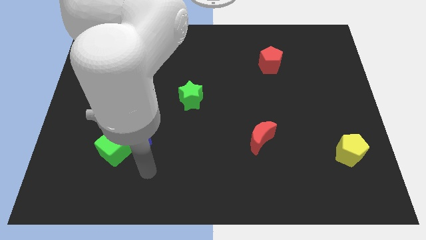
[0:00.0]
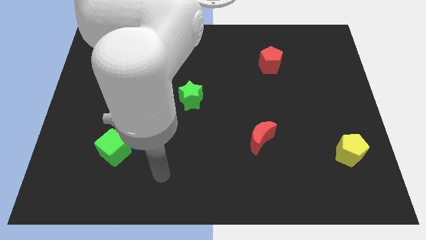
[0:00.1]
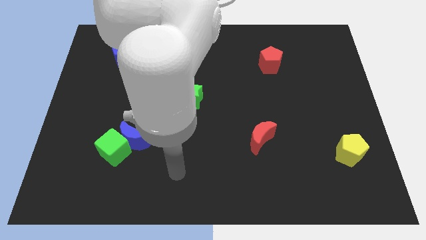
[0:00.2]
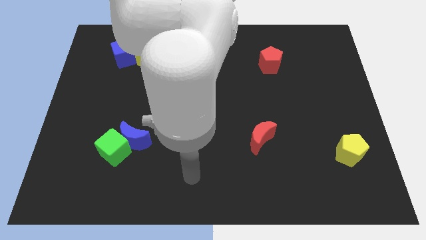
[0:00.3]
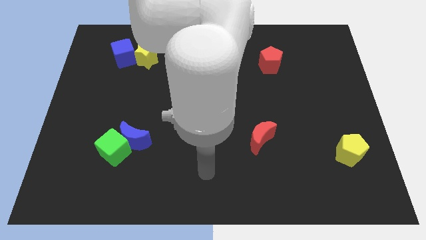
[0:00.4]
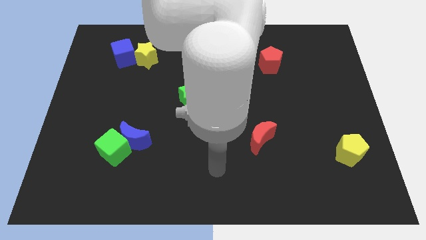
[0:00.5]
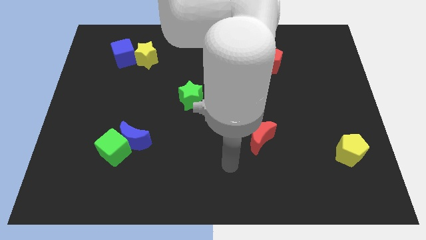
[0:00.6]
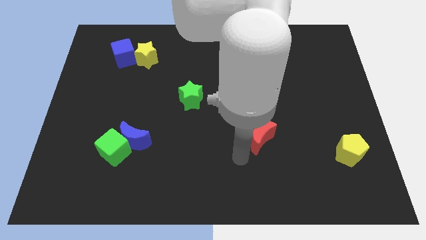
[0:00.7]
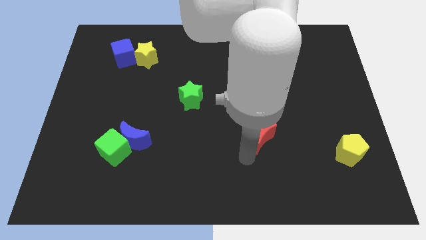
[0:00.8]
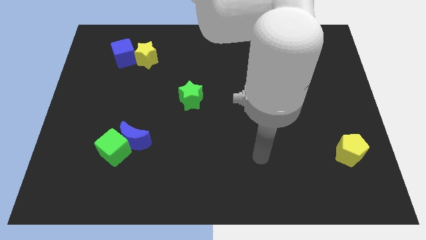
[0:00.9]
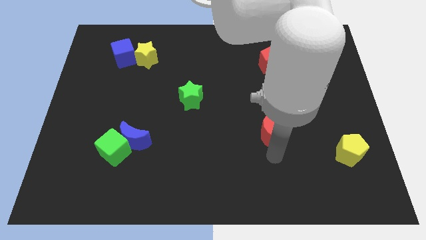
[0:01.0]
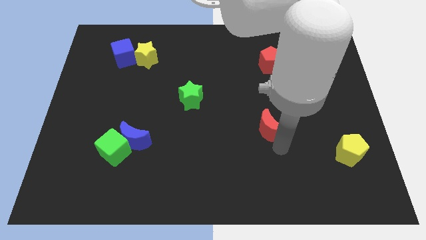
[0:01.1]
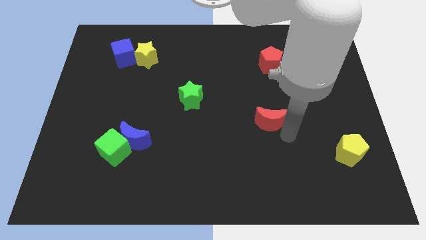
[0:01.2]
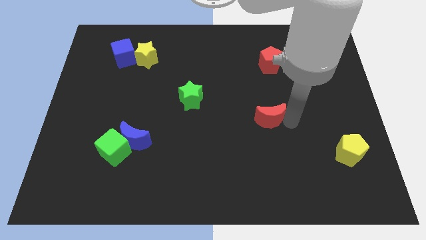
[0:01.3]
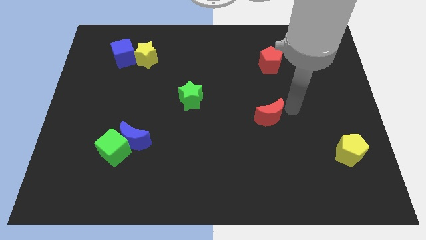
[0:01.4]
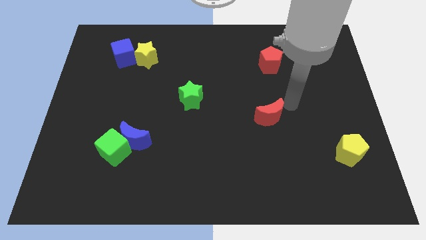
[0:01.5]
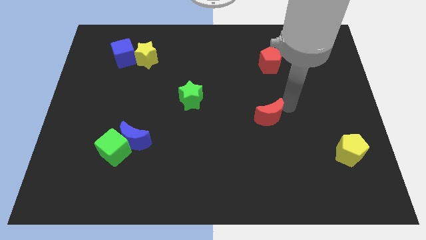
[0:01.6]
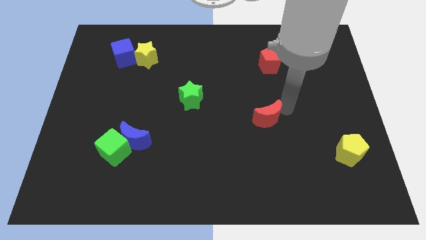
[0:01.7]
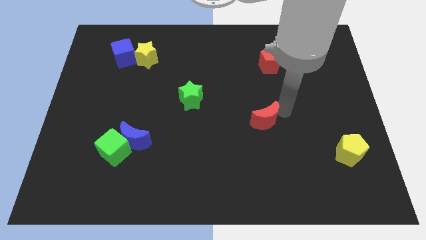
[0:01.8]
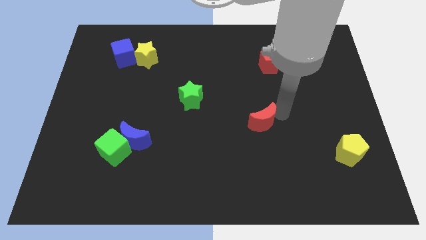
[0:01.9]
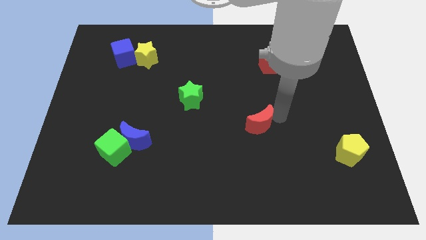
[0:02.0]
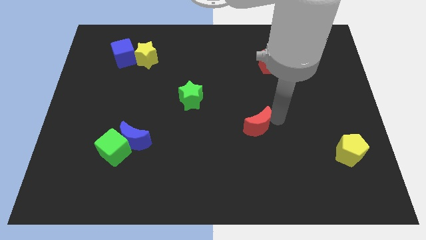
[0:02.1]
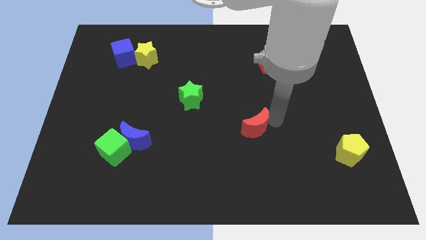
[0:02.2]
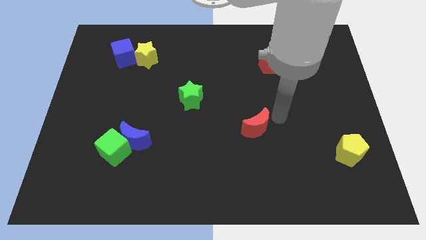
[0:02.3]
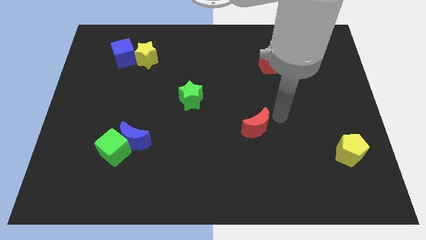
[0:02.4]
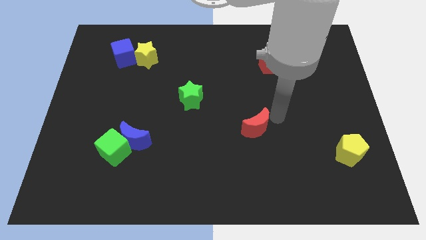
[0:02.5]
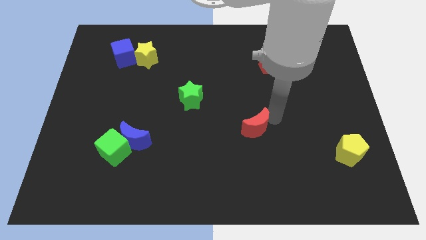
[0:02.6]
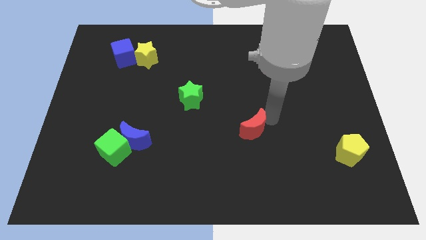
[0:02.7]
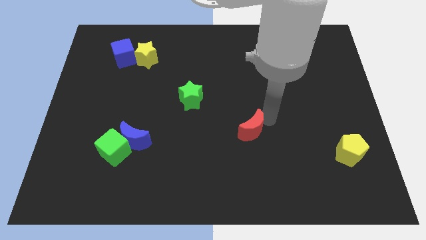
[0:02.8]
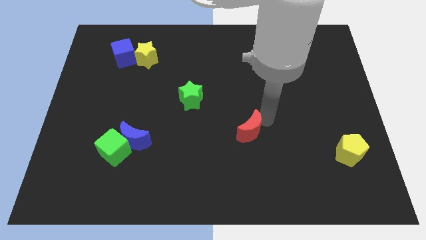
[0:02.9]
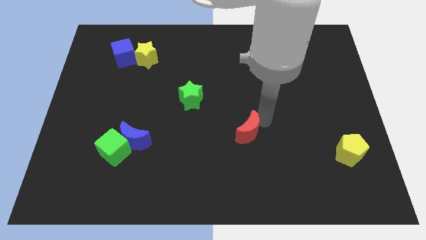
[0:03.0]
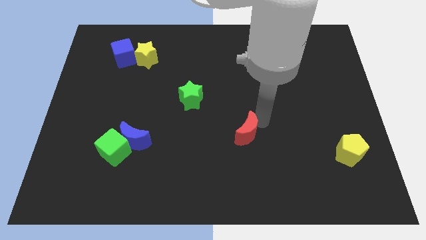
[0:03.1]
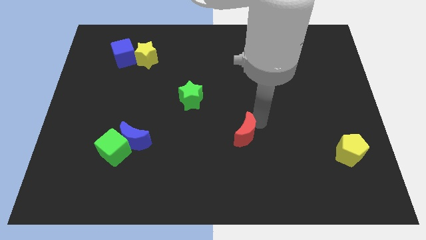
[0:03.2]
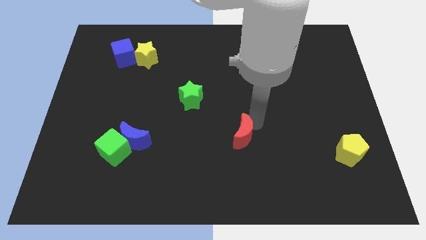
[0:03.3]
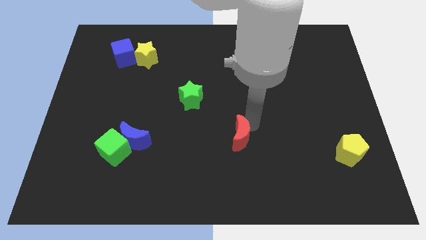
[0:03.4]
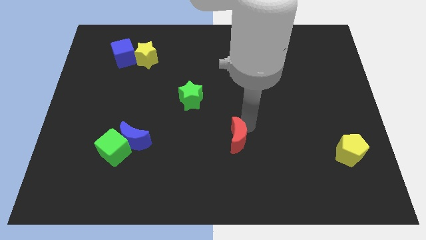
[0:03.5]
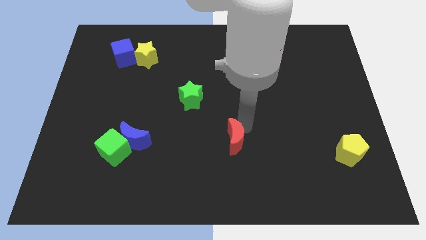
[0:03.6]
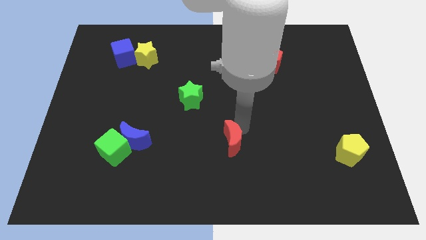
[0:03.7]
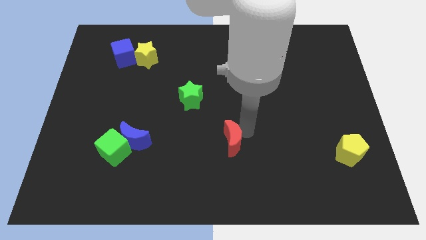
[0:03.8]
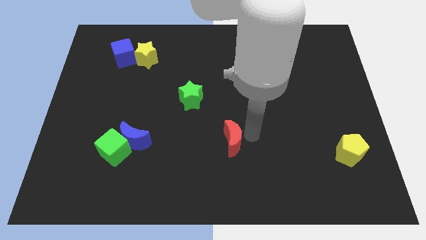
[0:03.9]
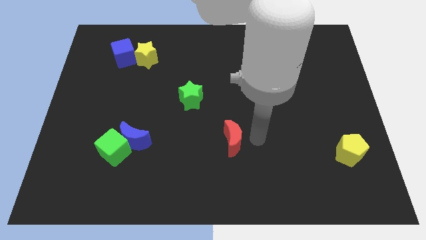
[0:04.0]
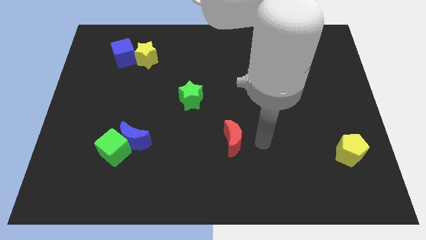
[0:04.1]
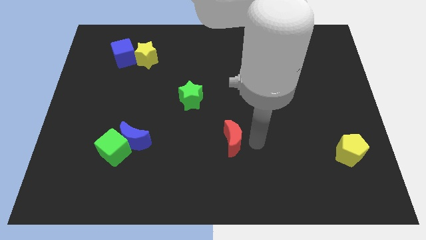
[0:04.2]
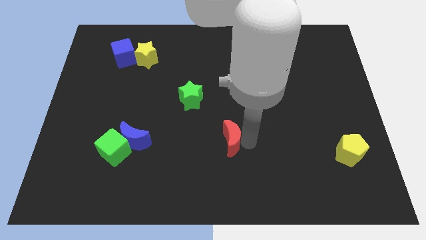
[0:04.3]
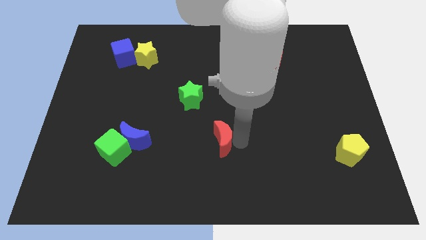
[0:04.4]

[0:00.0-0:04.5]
move the red moon left a little

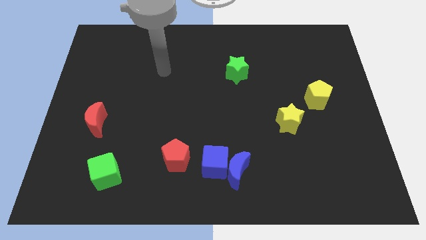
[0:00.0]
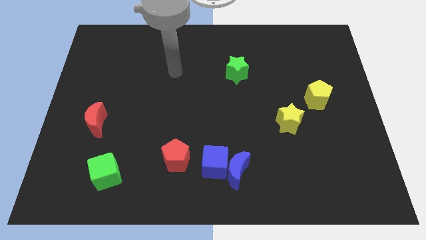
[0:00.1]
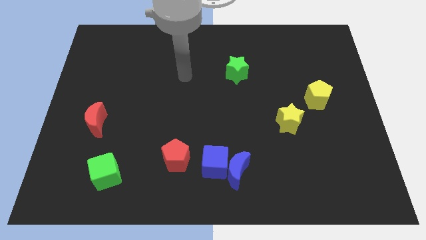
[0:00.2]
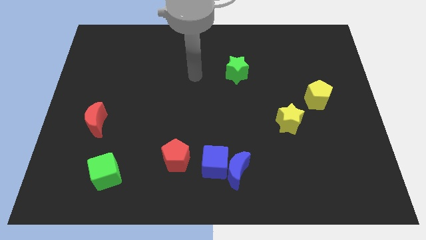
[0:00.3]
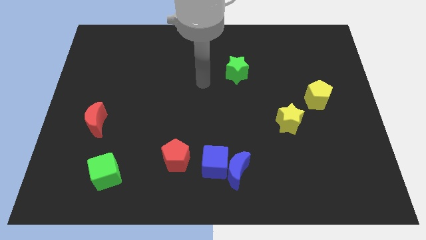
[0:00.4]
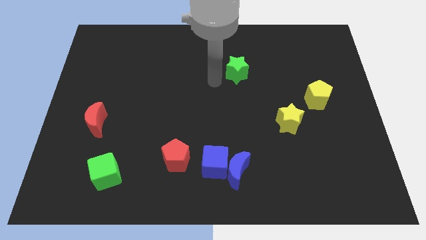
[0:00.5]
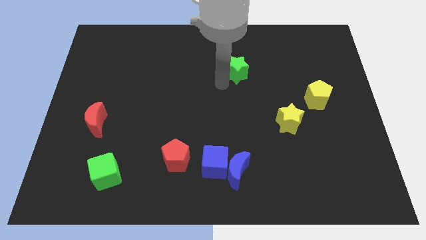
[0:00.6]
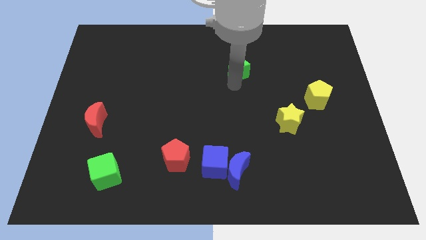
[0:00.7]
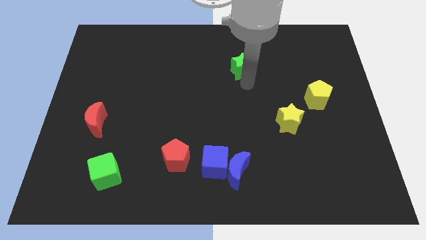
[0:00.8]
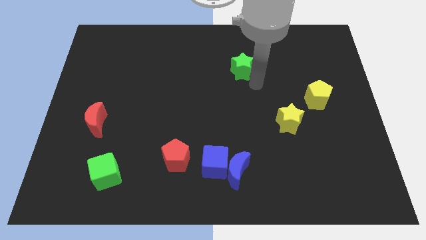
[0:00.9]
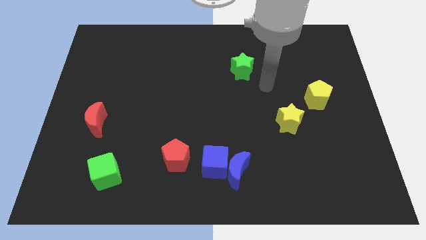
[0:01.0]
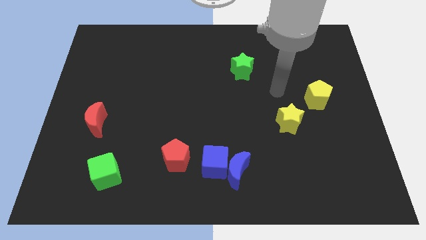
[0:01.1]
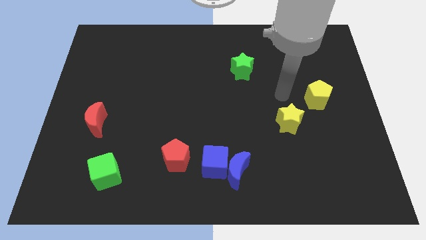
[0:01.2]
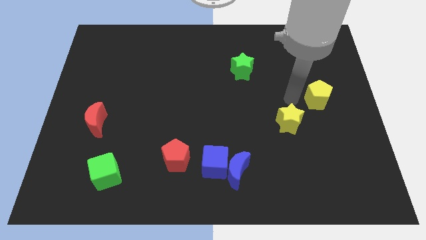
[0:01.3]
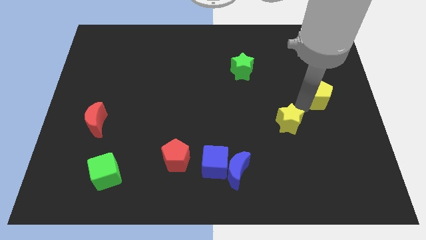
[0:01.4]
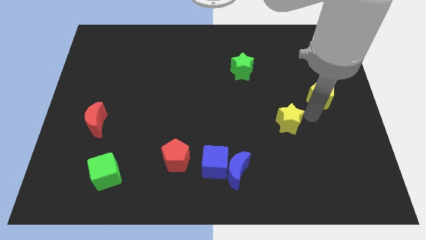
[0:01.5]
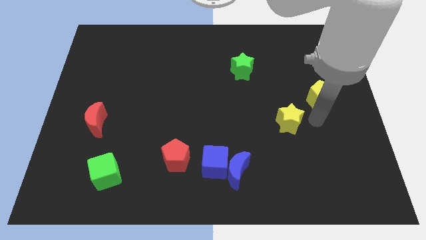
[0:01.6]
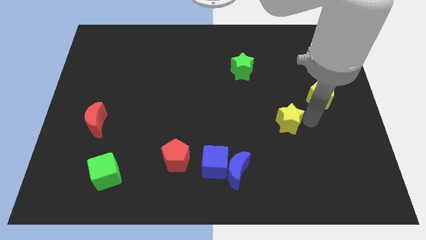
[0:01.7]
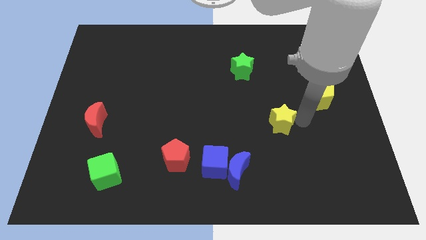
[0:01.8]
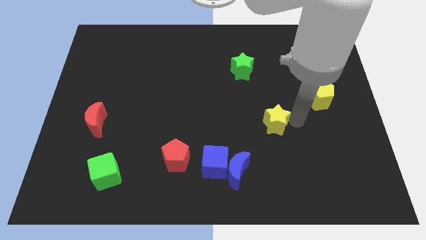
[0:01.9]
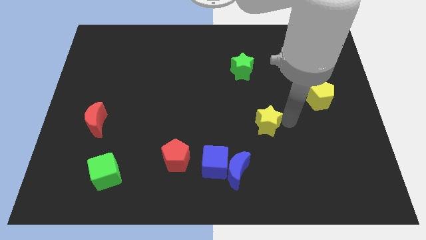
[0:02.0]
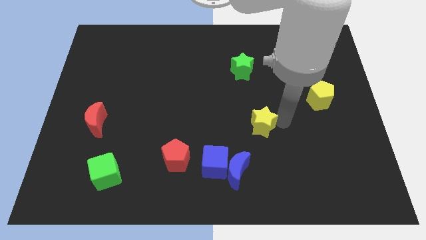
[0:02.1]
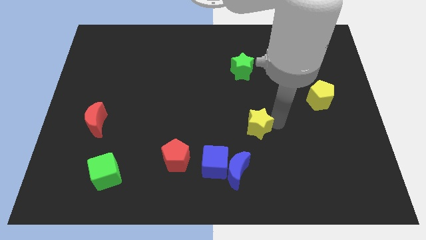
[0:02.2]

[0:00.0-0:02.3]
push the yellow star a little left

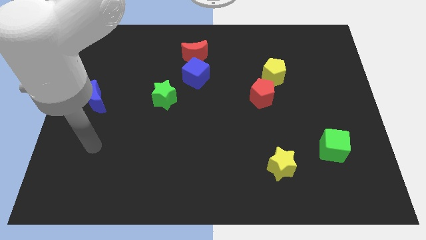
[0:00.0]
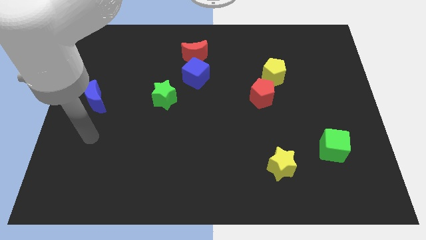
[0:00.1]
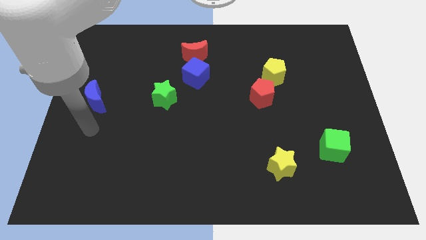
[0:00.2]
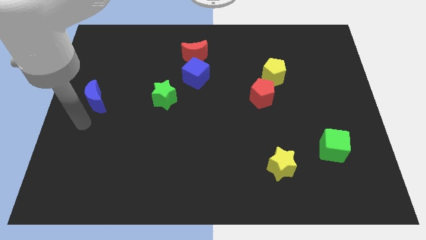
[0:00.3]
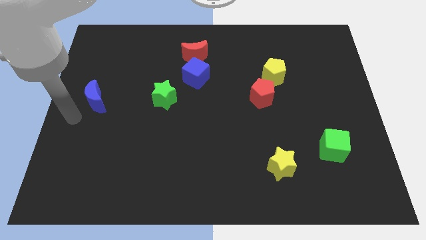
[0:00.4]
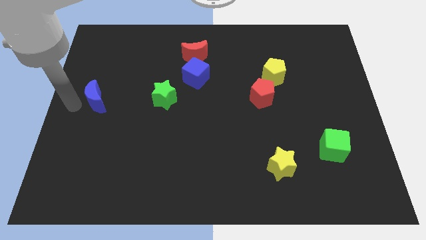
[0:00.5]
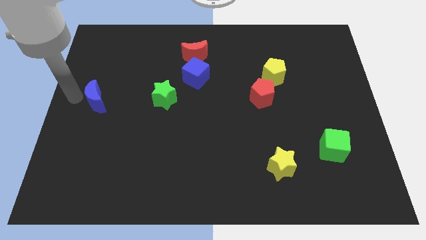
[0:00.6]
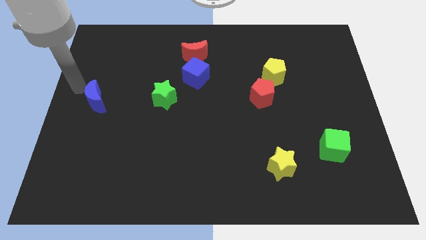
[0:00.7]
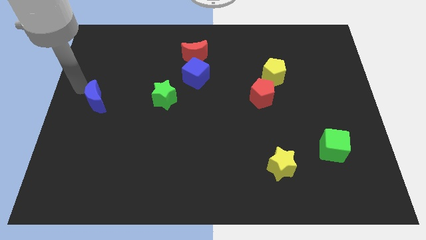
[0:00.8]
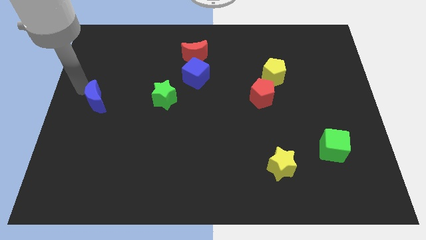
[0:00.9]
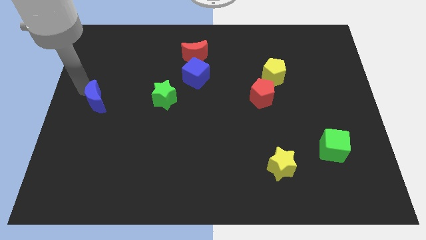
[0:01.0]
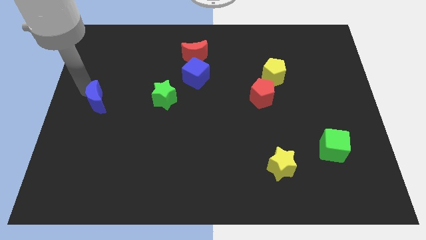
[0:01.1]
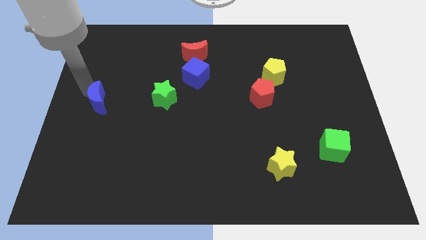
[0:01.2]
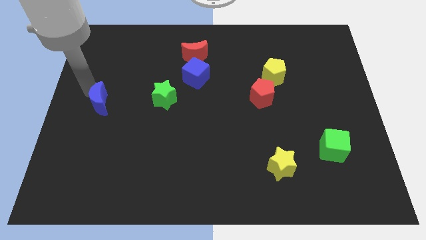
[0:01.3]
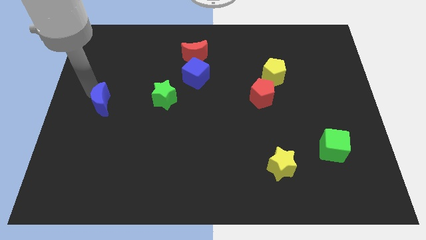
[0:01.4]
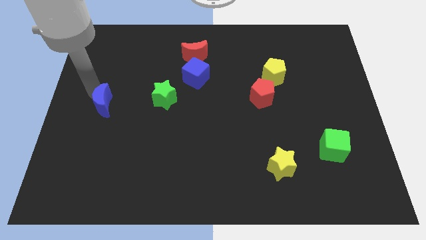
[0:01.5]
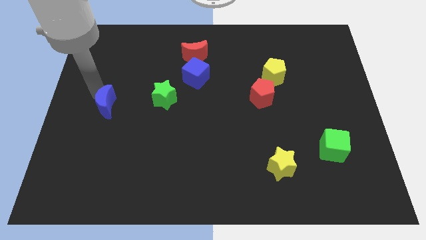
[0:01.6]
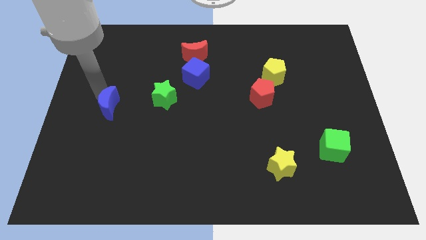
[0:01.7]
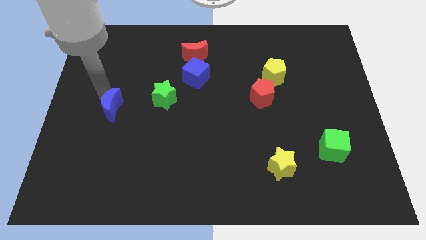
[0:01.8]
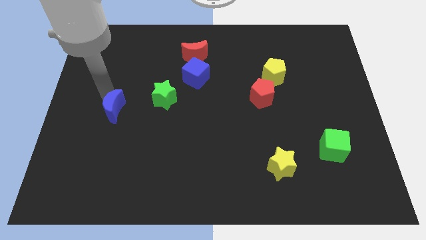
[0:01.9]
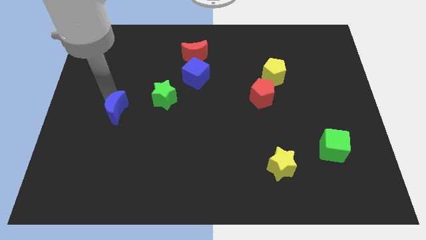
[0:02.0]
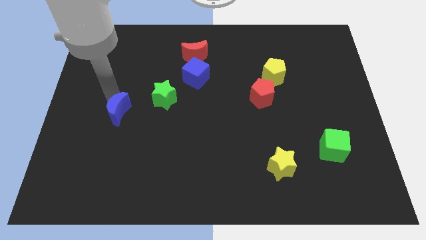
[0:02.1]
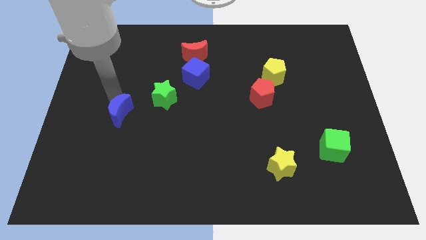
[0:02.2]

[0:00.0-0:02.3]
slightly slide the blue moon diagonally downwards and right
